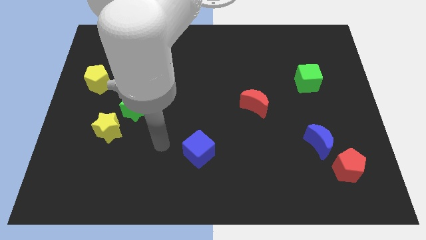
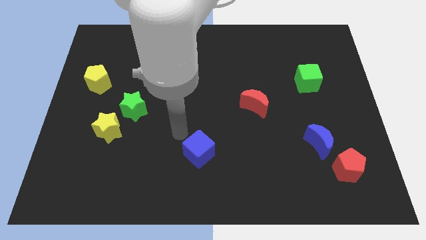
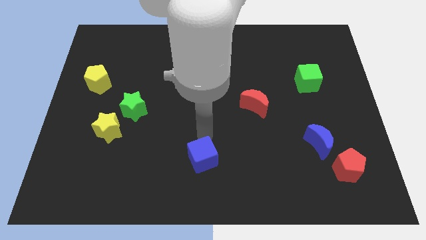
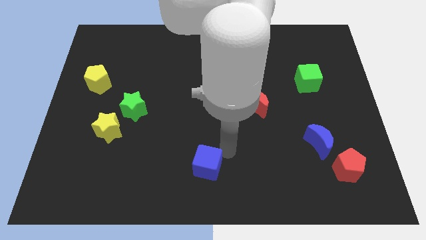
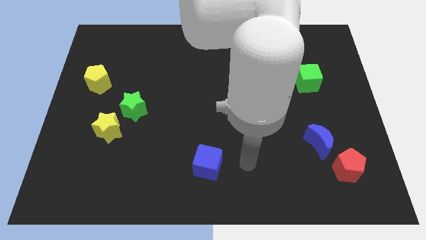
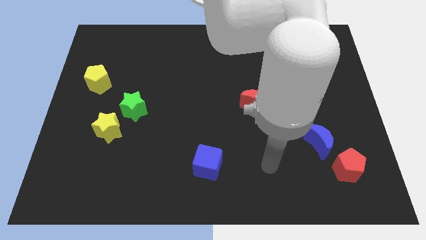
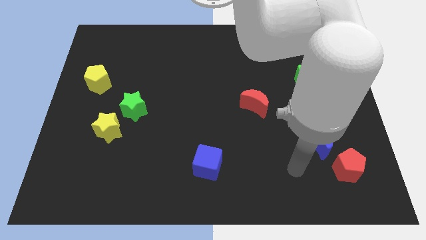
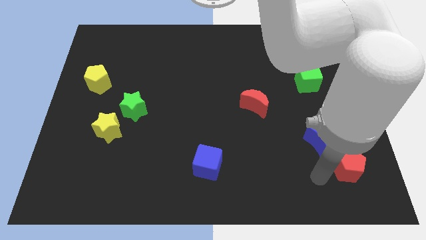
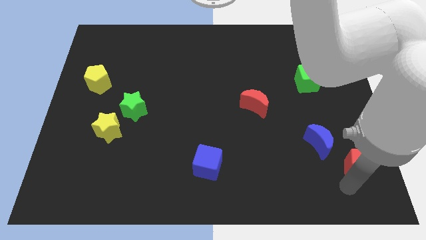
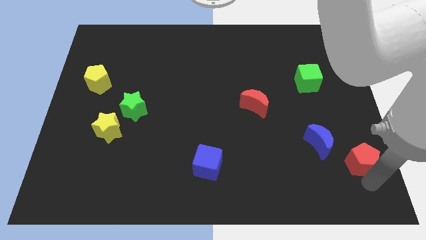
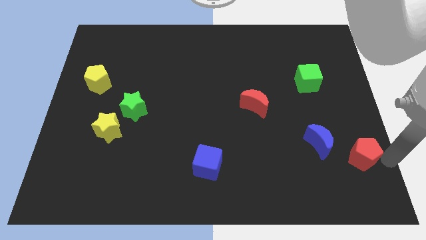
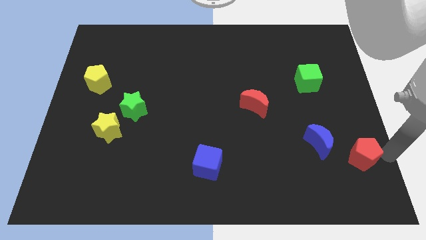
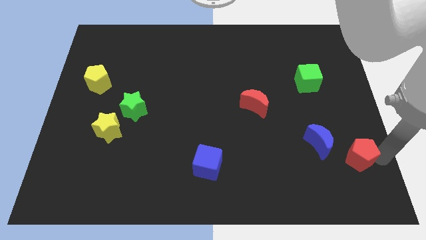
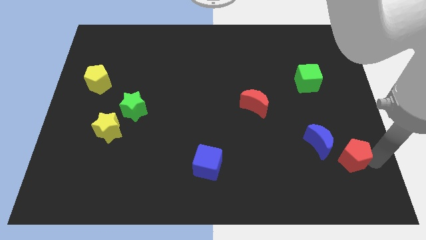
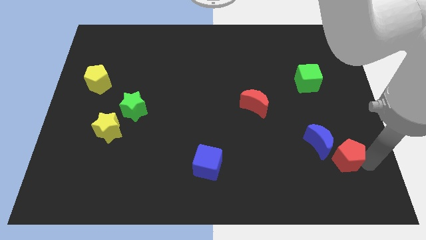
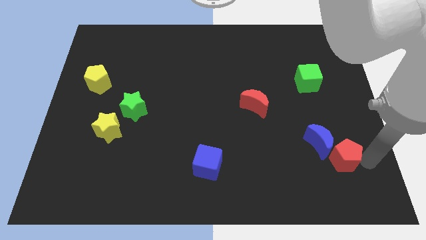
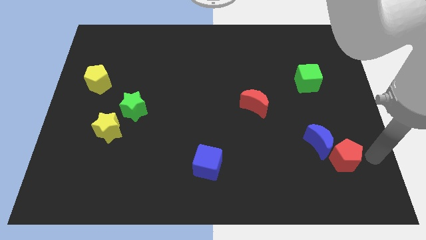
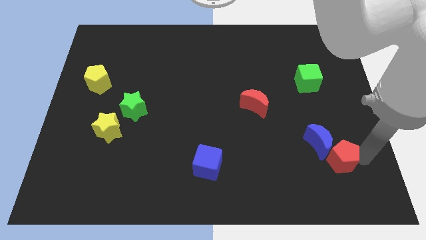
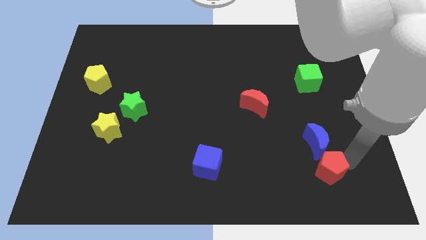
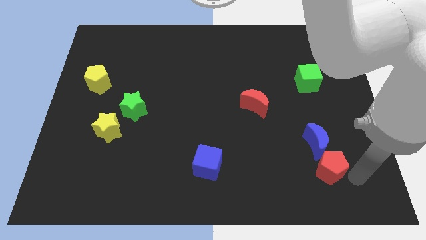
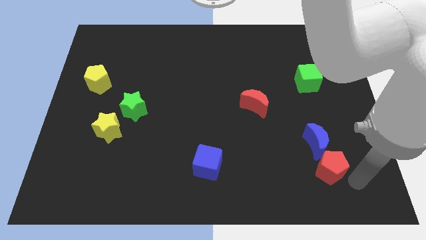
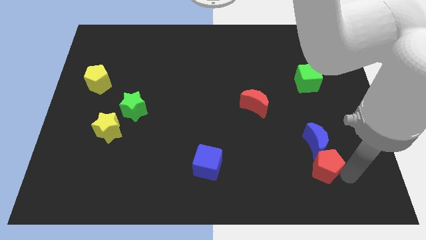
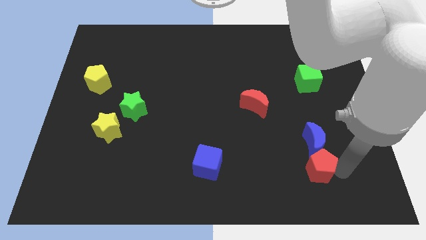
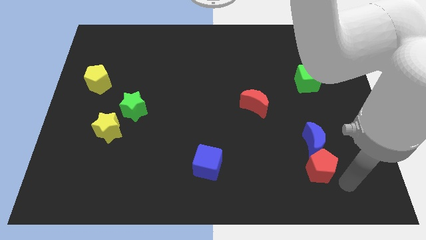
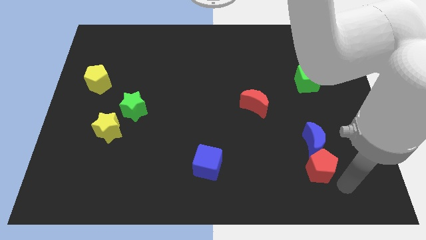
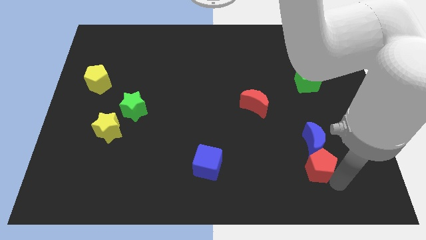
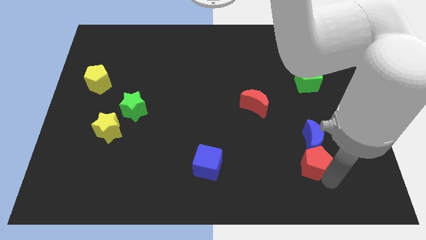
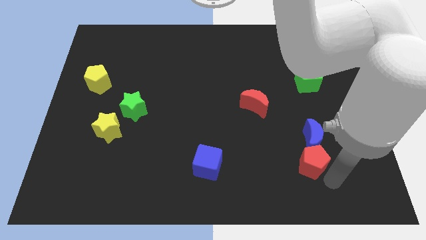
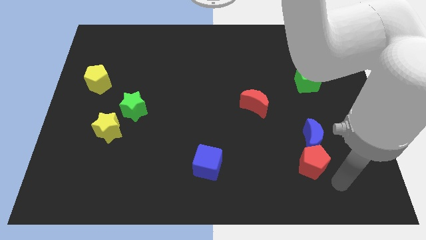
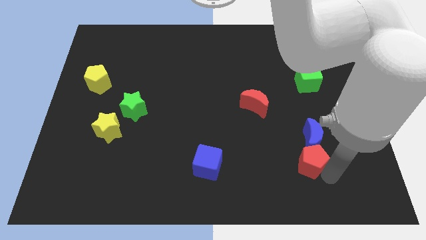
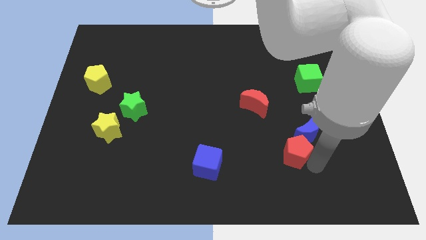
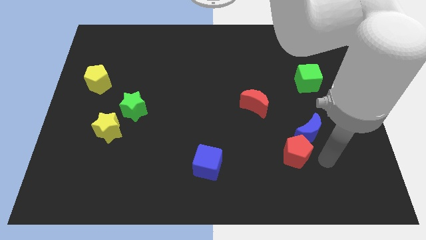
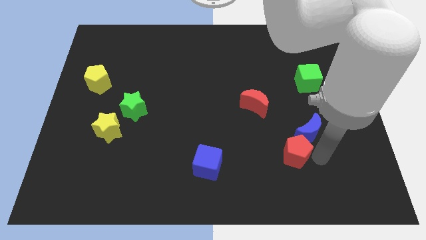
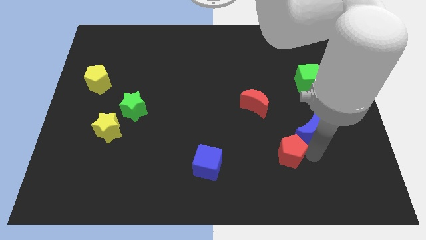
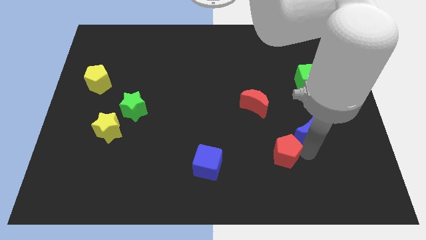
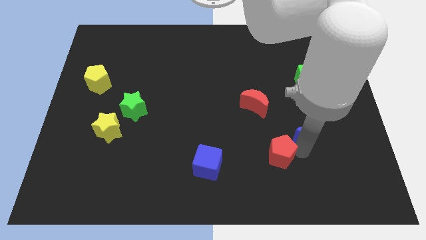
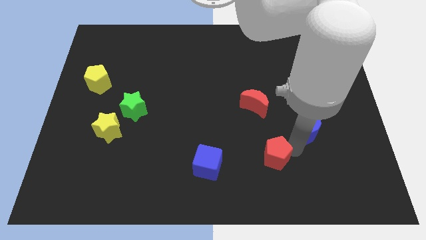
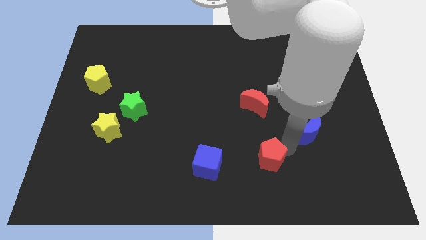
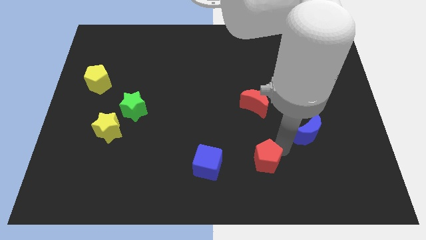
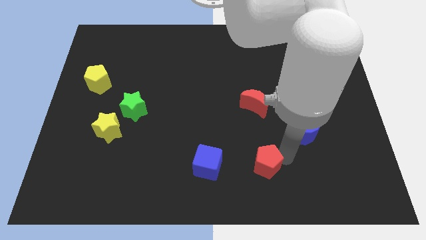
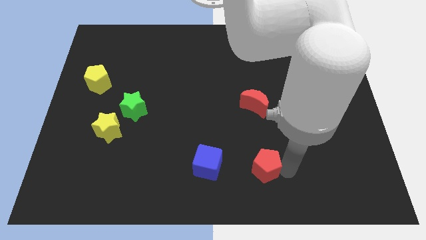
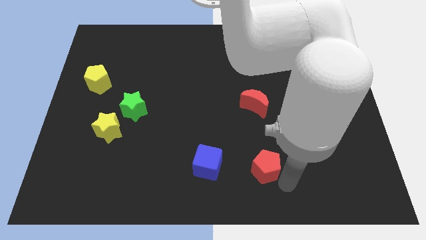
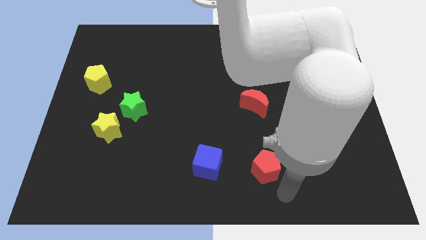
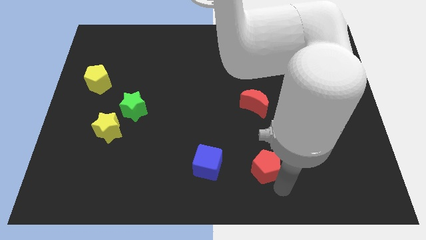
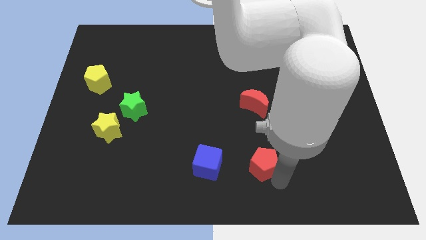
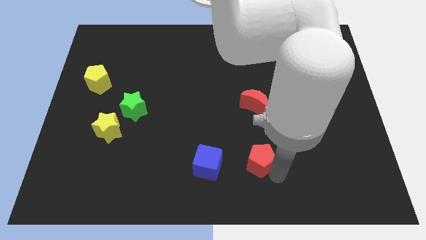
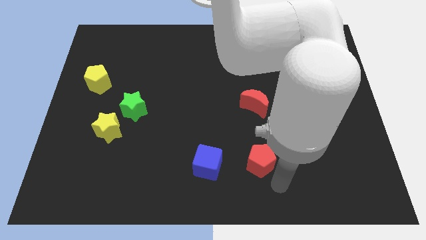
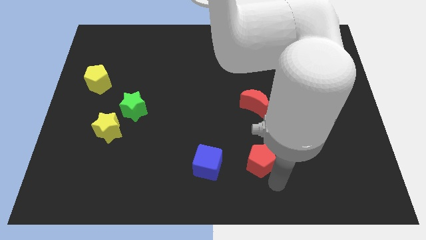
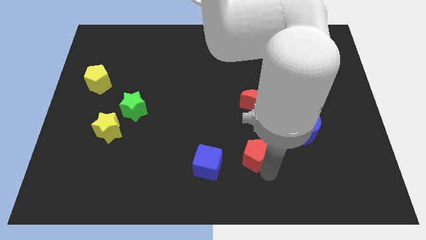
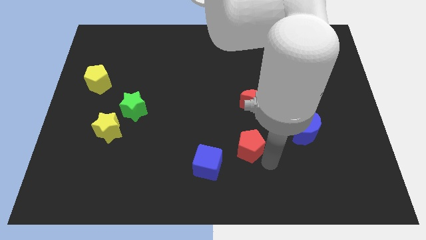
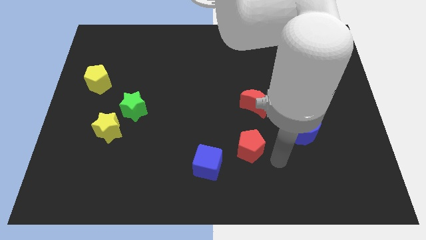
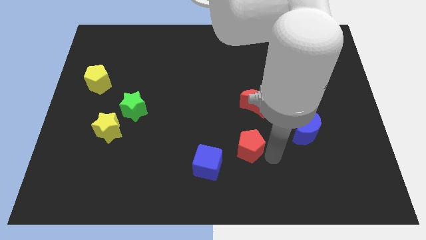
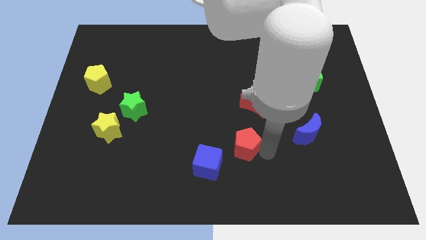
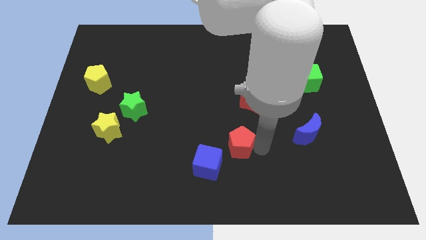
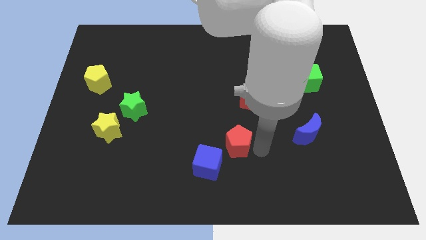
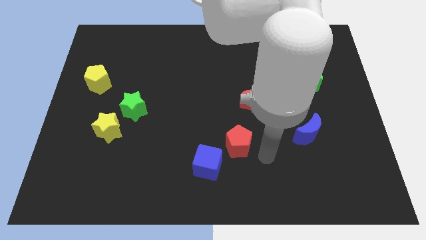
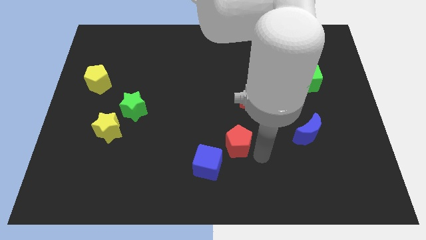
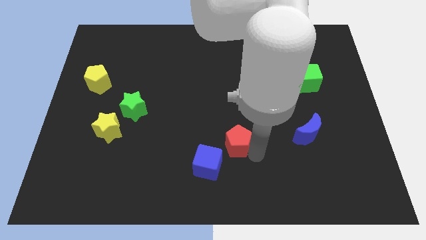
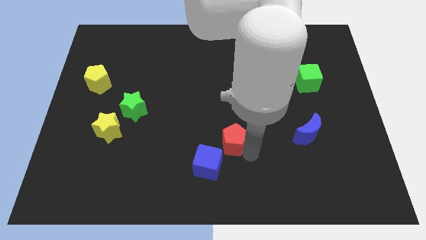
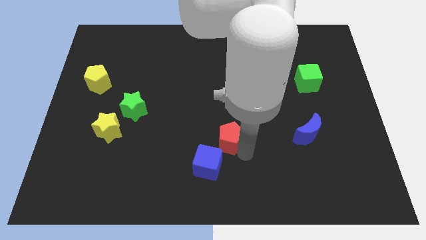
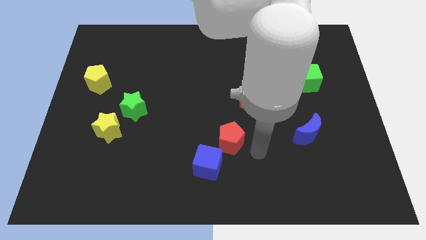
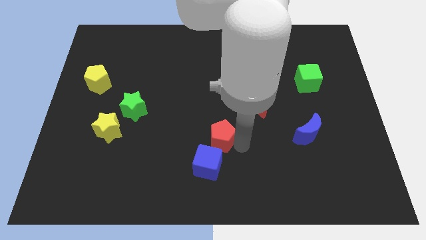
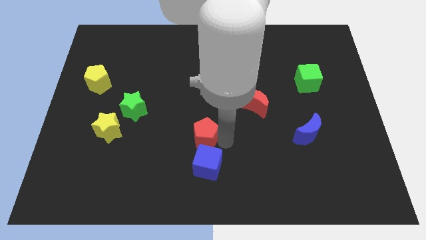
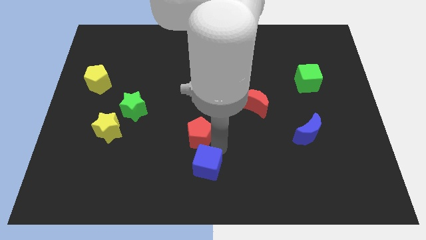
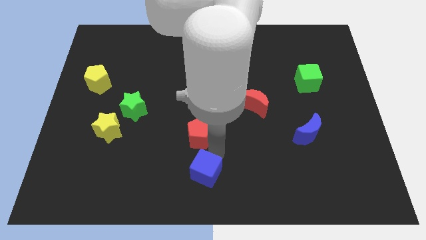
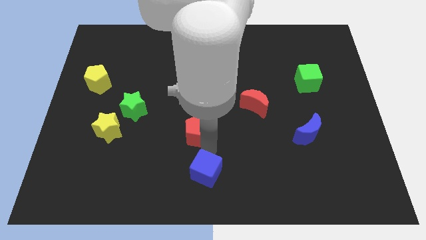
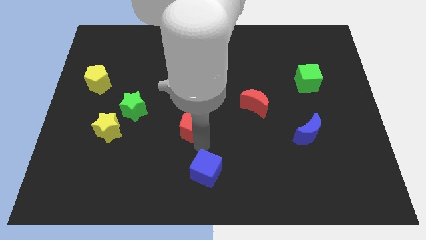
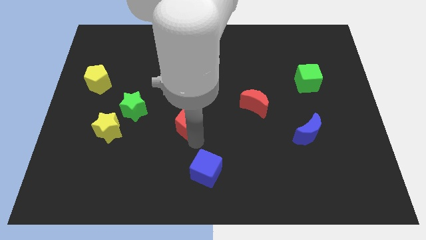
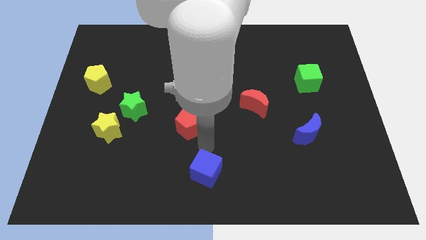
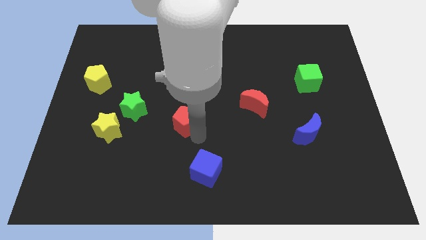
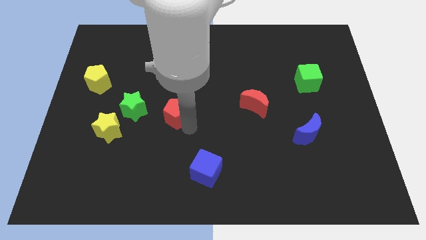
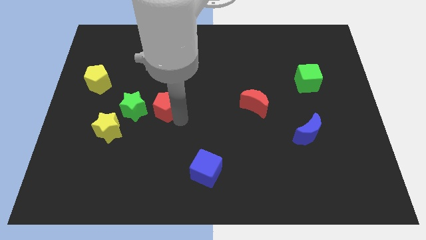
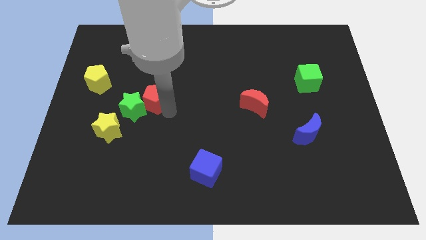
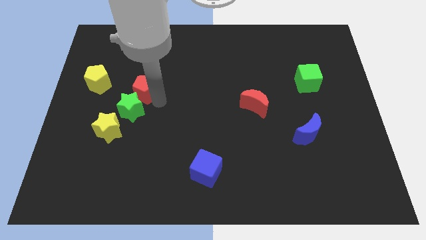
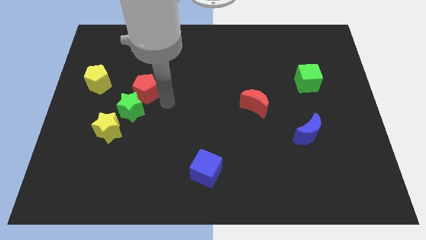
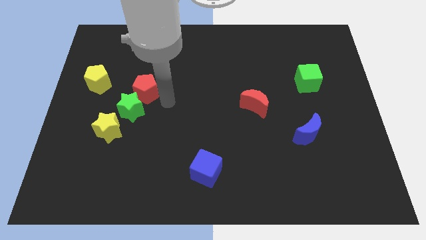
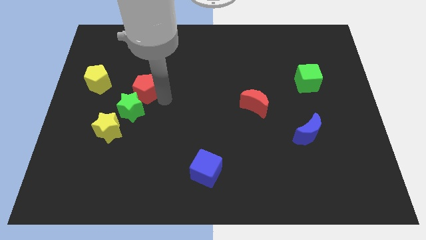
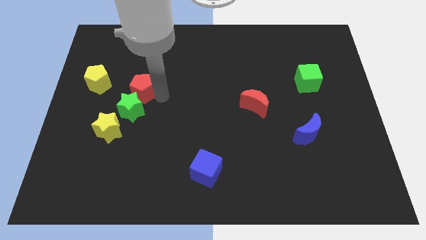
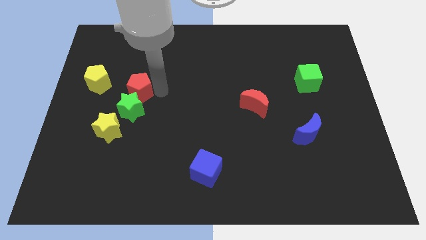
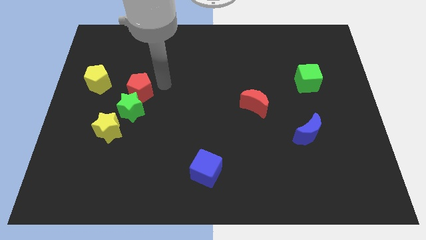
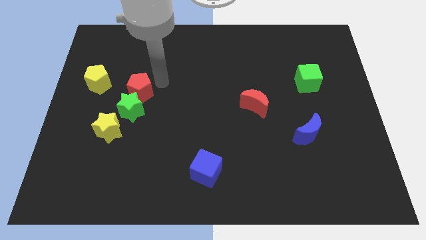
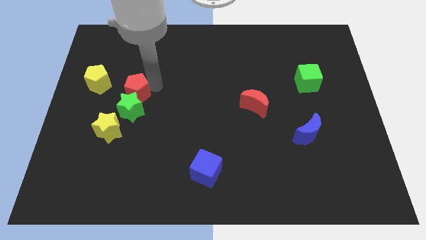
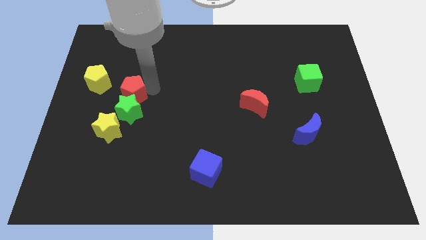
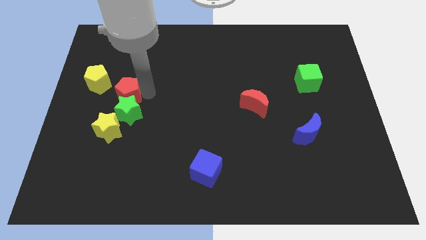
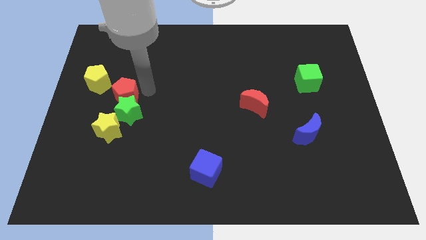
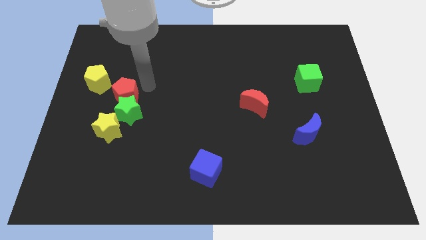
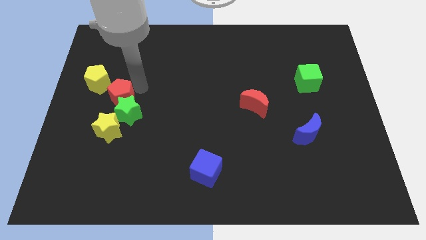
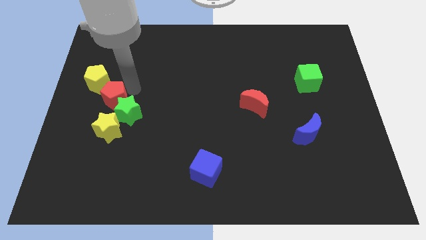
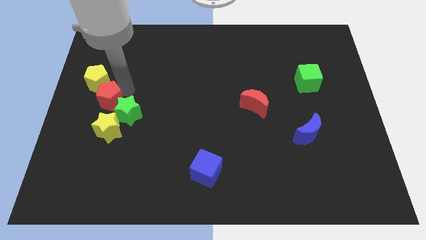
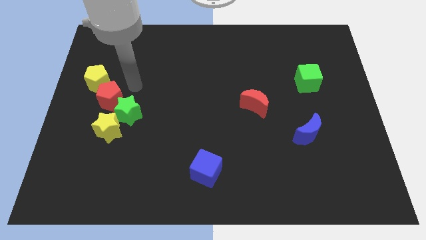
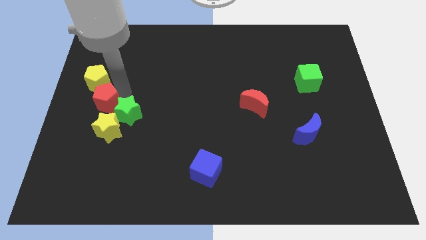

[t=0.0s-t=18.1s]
put the red pentagon to the top left of the yellow star
